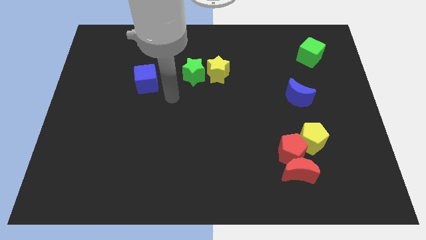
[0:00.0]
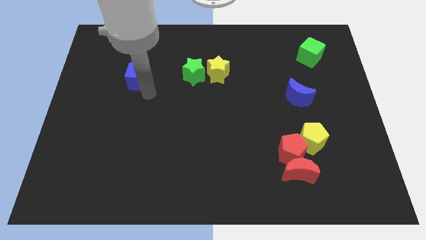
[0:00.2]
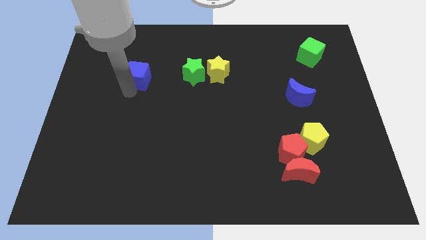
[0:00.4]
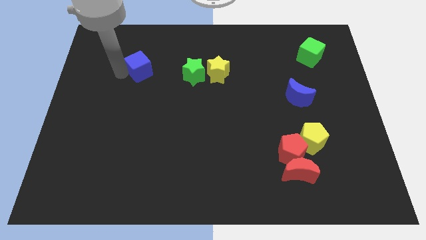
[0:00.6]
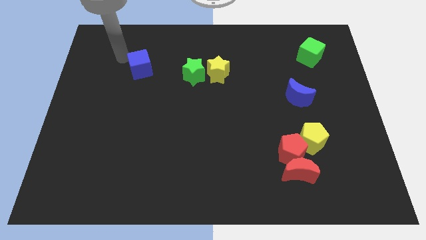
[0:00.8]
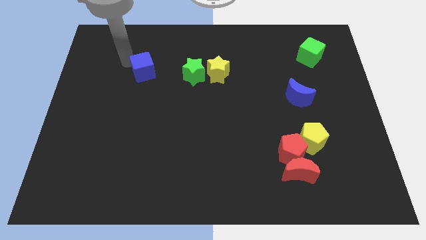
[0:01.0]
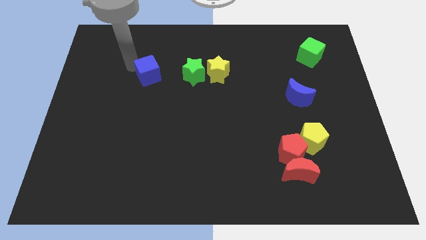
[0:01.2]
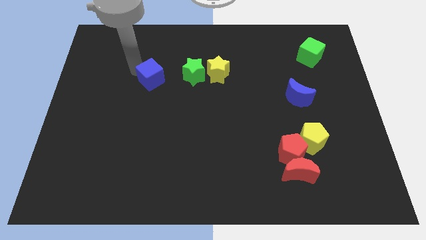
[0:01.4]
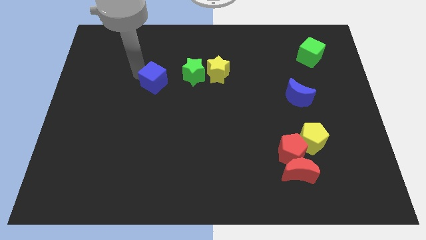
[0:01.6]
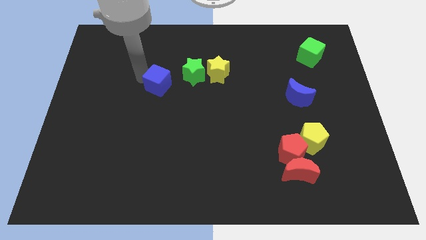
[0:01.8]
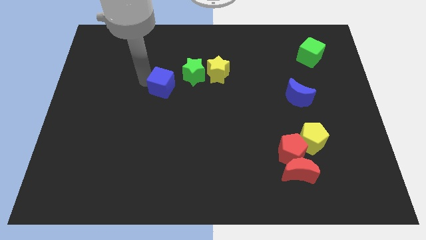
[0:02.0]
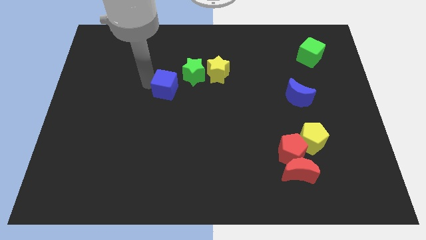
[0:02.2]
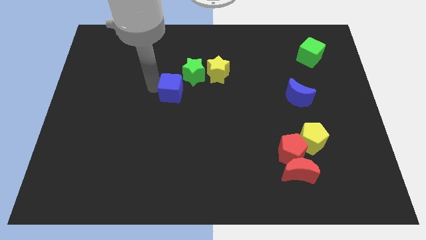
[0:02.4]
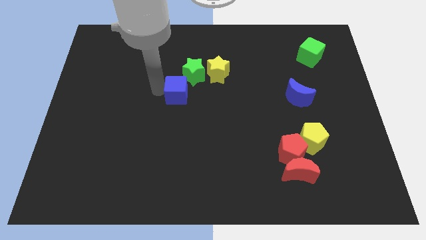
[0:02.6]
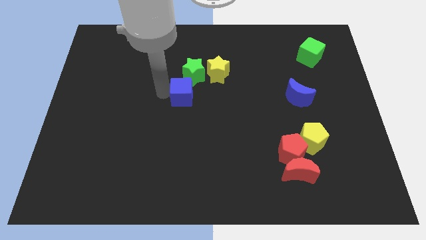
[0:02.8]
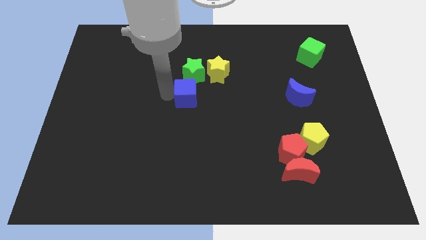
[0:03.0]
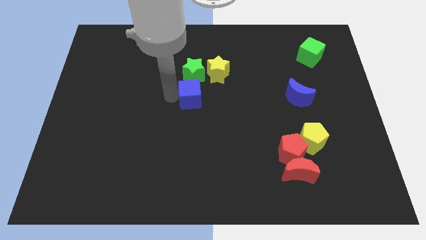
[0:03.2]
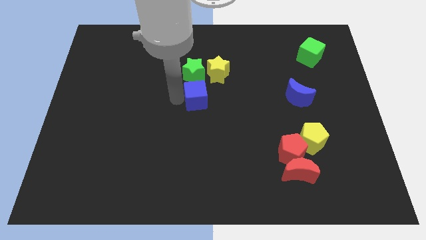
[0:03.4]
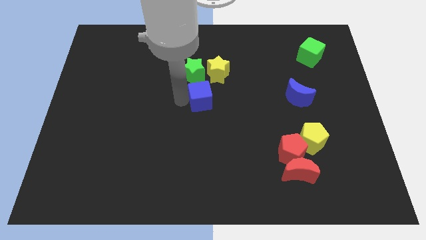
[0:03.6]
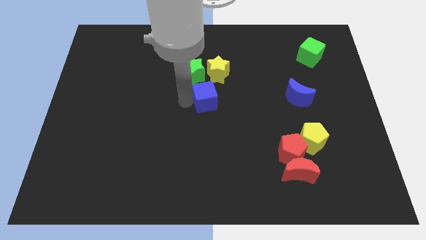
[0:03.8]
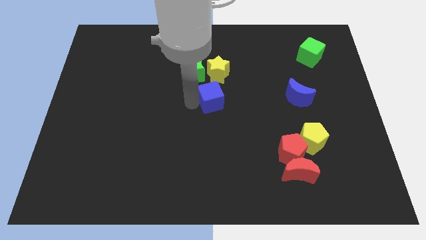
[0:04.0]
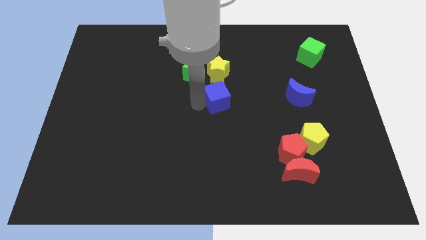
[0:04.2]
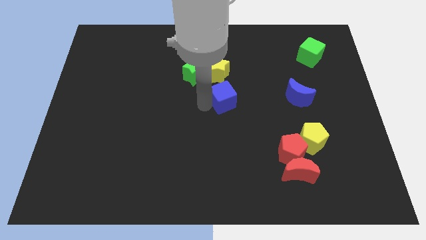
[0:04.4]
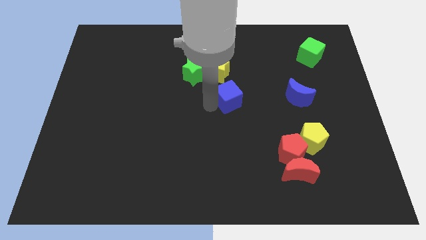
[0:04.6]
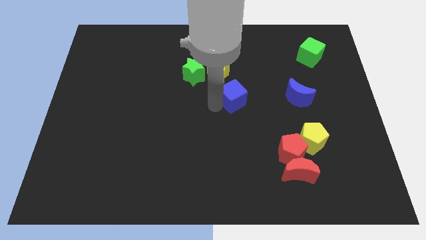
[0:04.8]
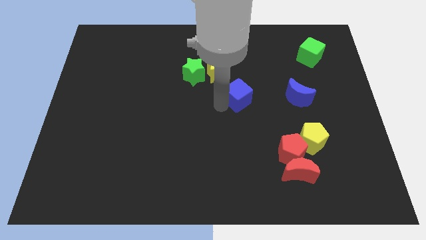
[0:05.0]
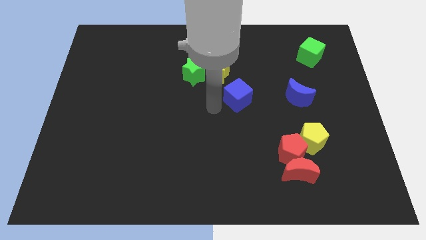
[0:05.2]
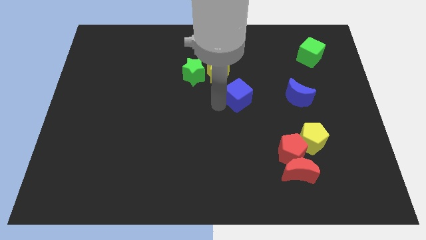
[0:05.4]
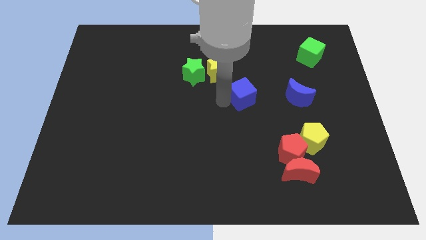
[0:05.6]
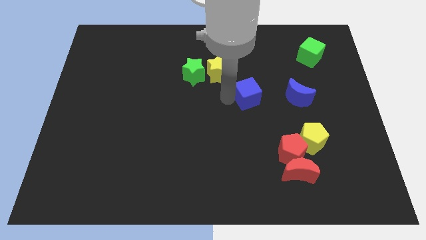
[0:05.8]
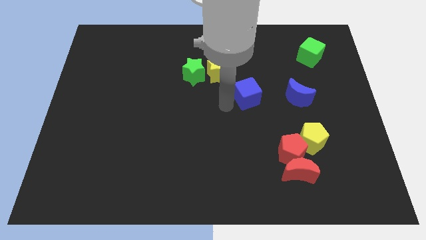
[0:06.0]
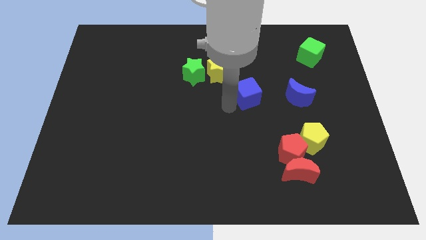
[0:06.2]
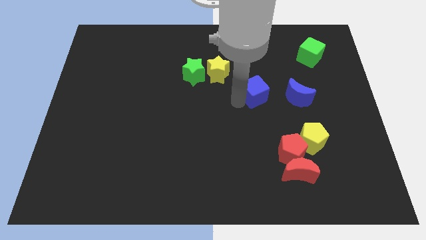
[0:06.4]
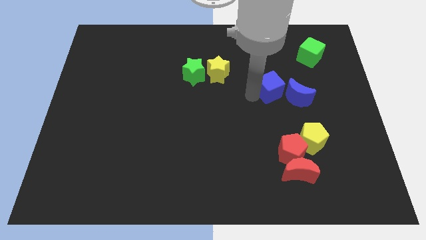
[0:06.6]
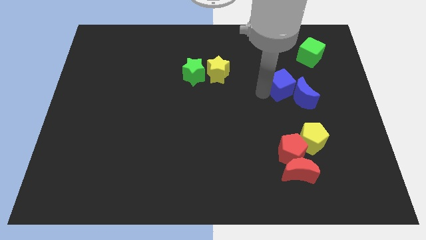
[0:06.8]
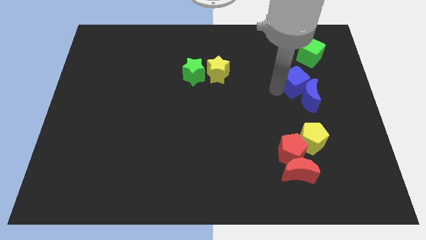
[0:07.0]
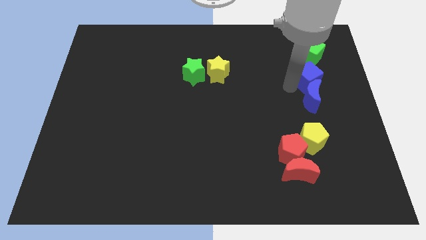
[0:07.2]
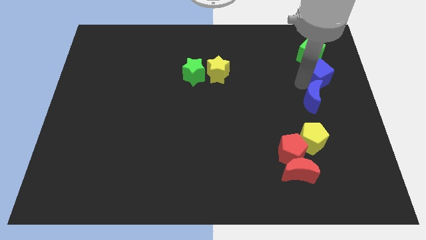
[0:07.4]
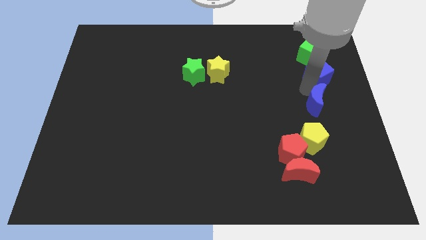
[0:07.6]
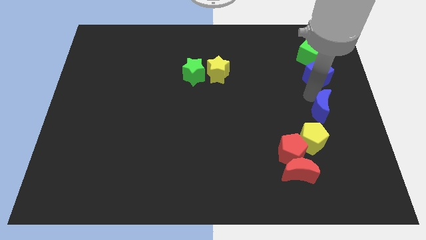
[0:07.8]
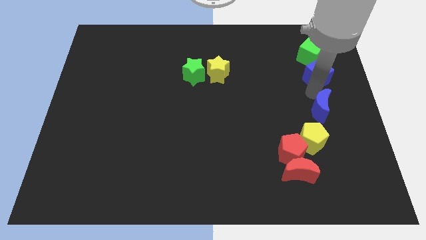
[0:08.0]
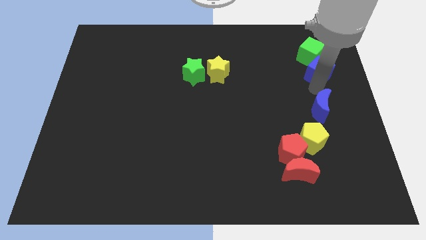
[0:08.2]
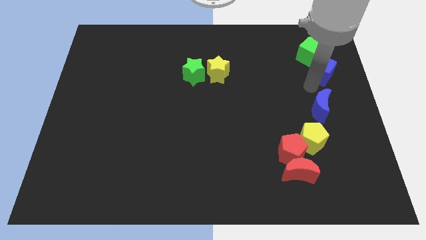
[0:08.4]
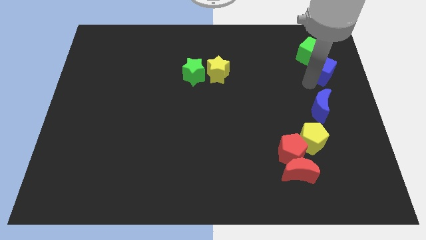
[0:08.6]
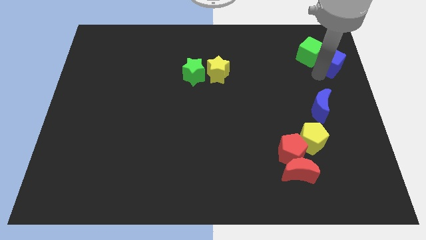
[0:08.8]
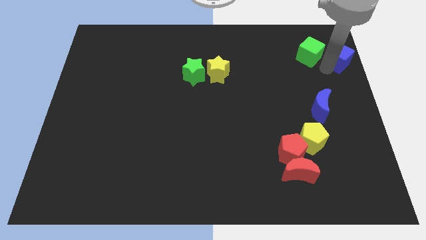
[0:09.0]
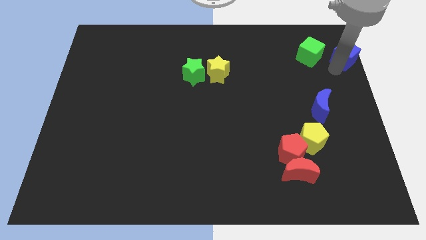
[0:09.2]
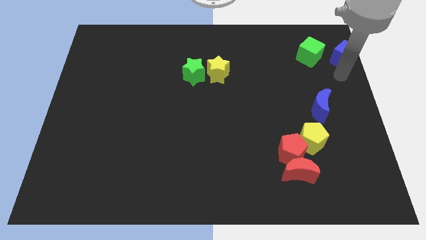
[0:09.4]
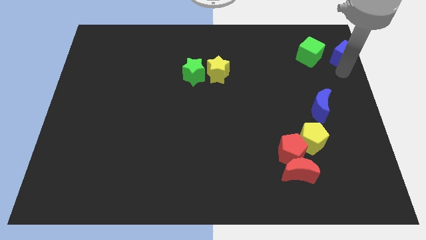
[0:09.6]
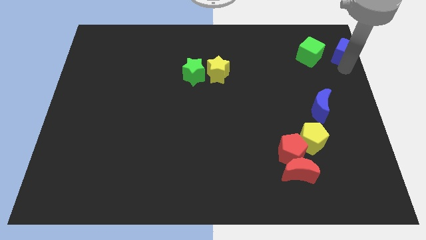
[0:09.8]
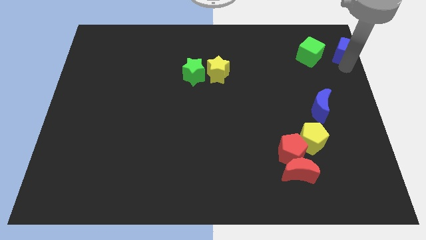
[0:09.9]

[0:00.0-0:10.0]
move the blue cube to the top right
